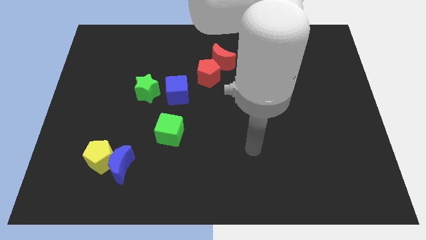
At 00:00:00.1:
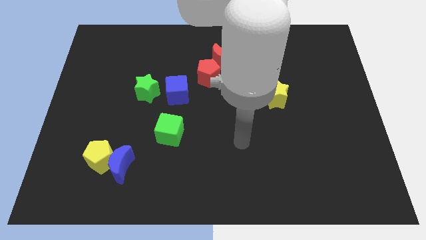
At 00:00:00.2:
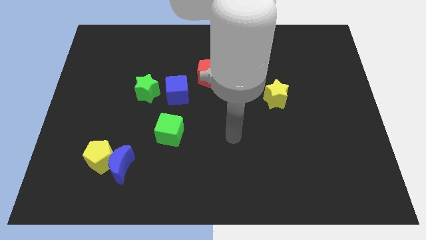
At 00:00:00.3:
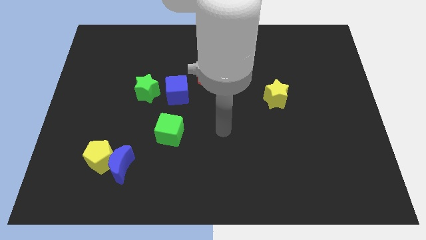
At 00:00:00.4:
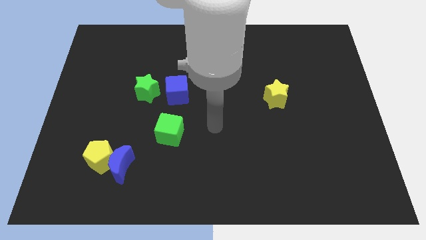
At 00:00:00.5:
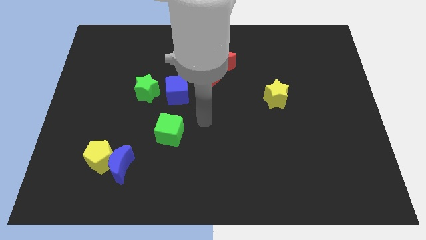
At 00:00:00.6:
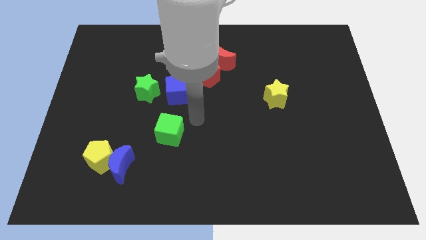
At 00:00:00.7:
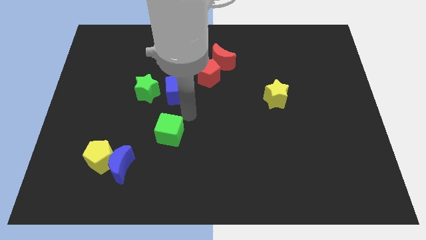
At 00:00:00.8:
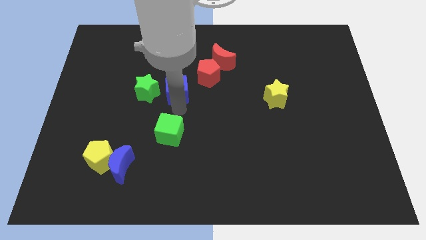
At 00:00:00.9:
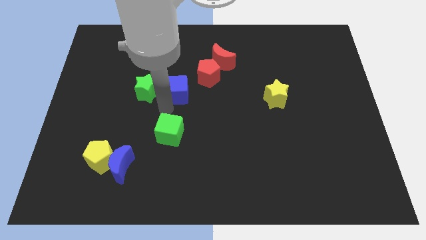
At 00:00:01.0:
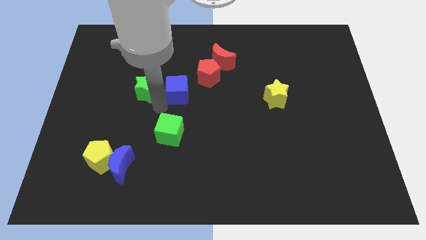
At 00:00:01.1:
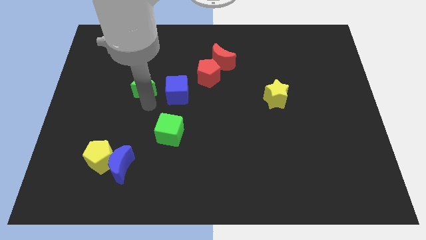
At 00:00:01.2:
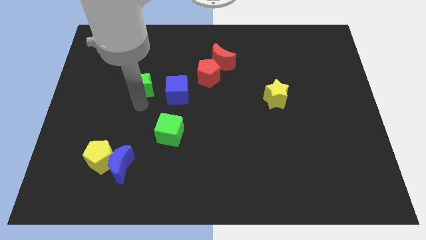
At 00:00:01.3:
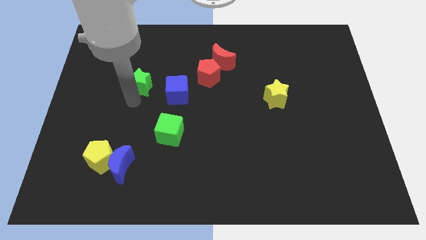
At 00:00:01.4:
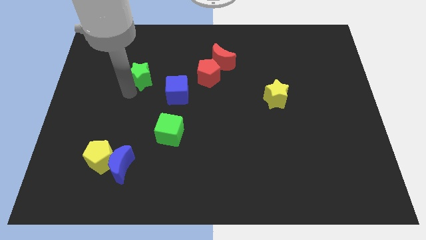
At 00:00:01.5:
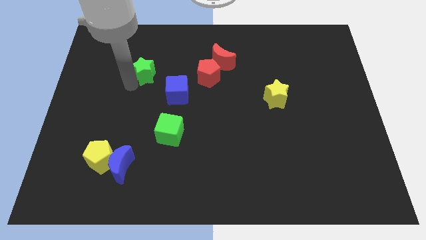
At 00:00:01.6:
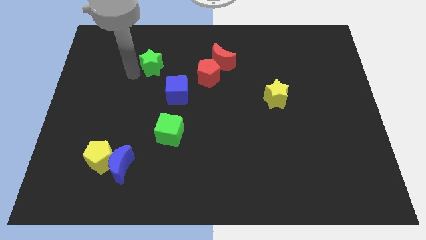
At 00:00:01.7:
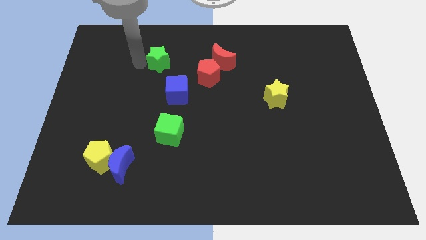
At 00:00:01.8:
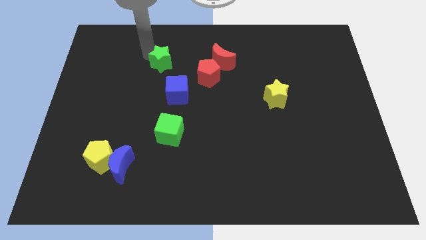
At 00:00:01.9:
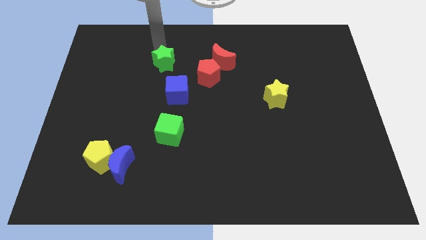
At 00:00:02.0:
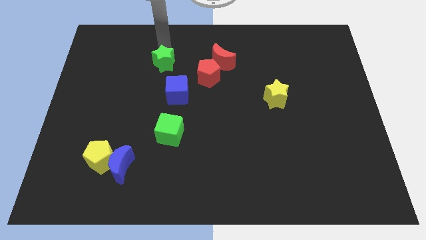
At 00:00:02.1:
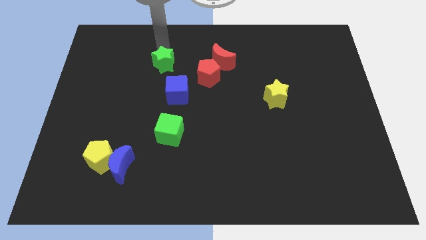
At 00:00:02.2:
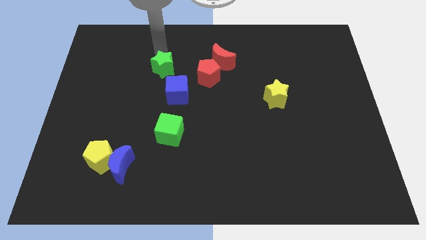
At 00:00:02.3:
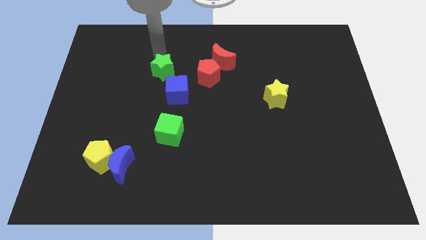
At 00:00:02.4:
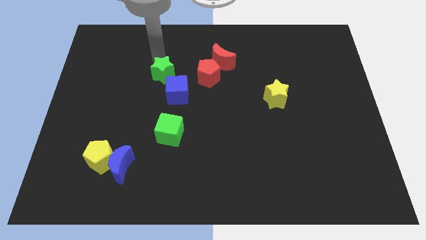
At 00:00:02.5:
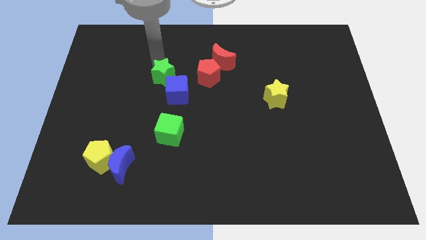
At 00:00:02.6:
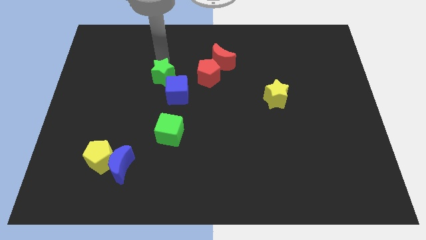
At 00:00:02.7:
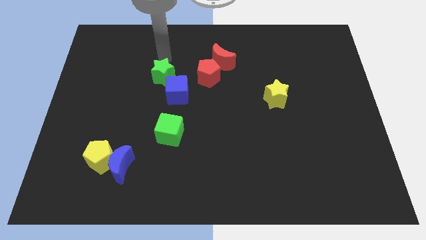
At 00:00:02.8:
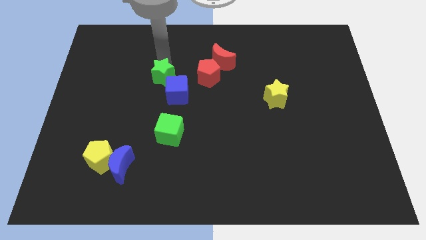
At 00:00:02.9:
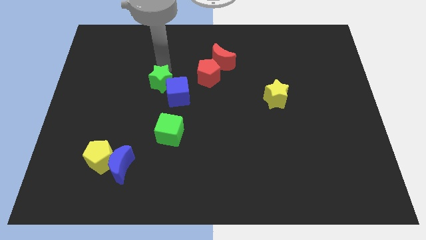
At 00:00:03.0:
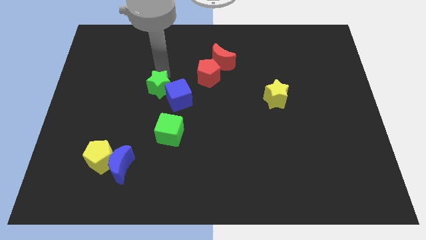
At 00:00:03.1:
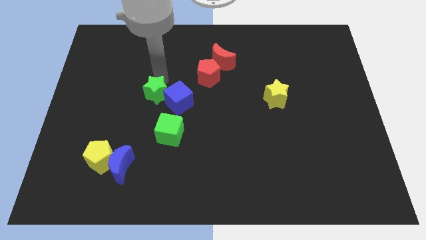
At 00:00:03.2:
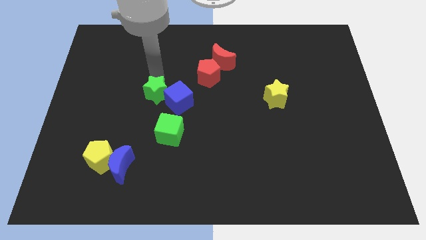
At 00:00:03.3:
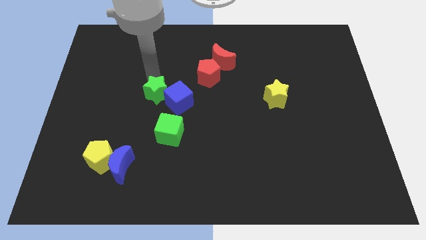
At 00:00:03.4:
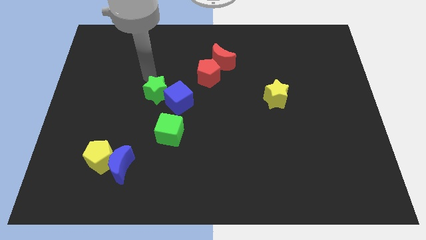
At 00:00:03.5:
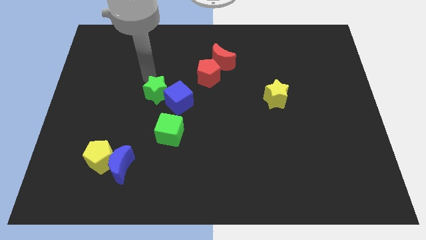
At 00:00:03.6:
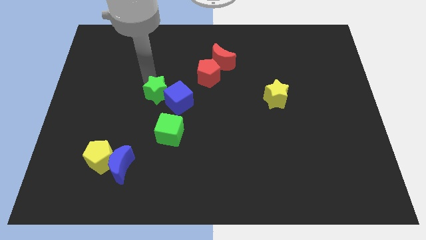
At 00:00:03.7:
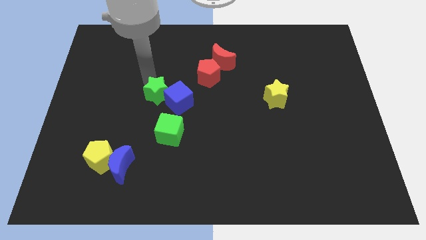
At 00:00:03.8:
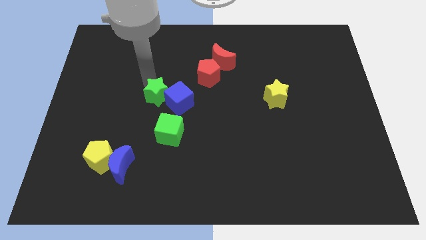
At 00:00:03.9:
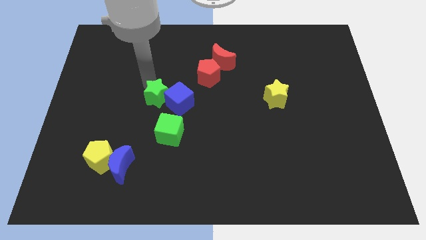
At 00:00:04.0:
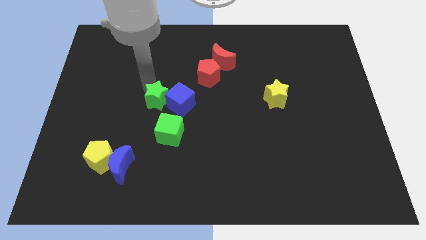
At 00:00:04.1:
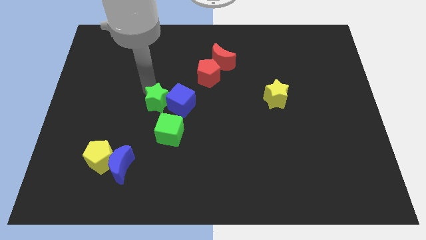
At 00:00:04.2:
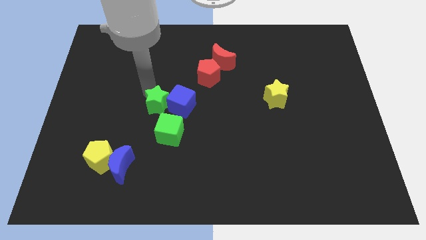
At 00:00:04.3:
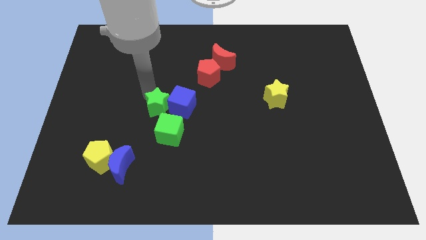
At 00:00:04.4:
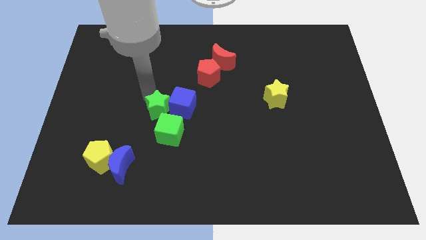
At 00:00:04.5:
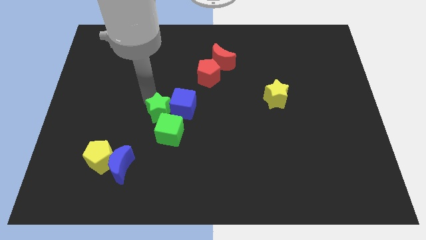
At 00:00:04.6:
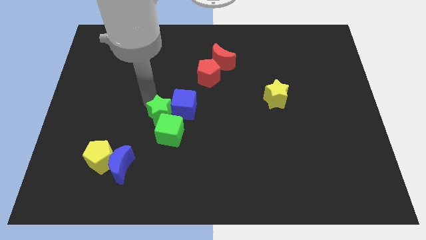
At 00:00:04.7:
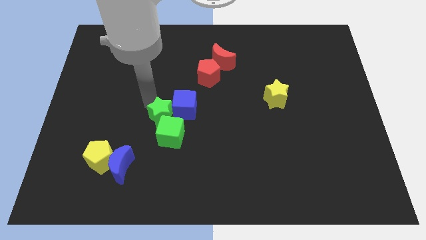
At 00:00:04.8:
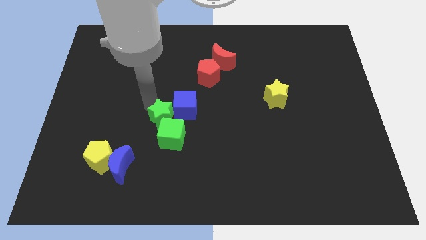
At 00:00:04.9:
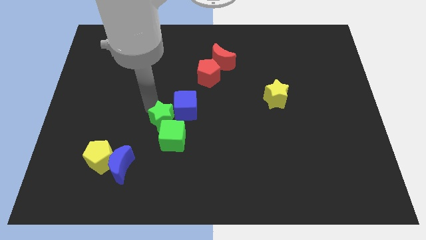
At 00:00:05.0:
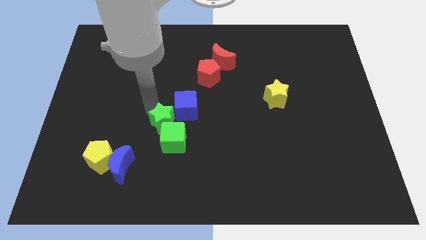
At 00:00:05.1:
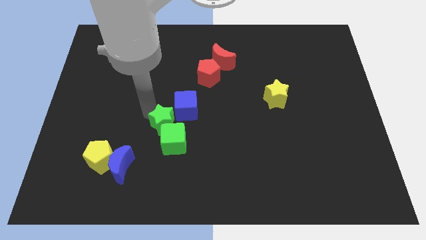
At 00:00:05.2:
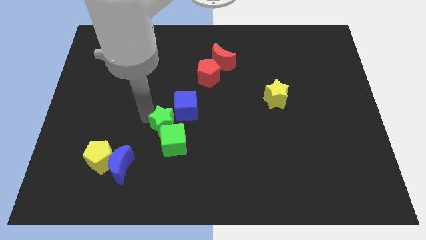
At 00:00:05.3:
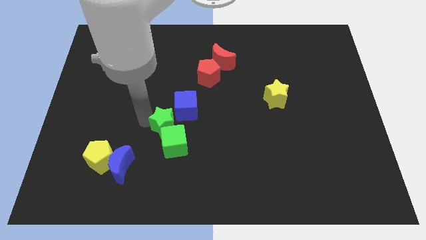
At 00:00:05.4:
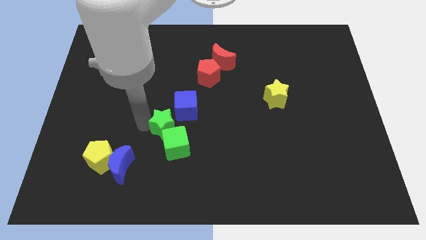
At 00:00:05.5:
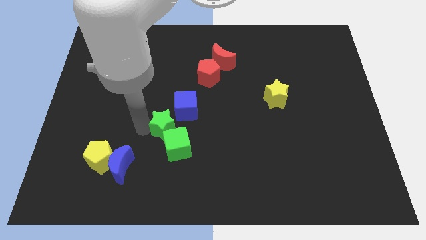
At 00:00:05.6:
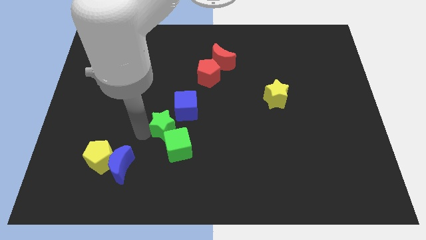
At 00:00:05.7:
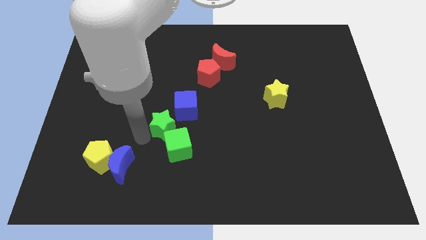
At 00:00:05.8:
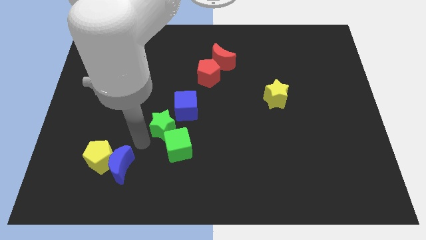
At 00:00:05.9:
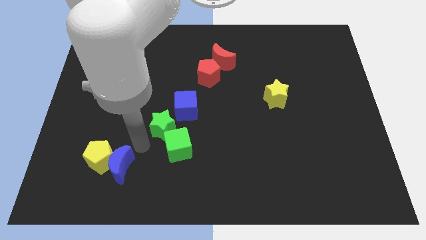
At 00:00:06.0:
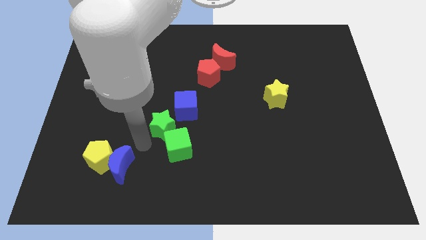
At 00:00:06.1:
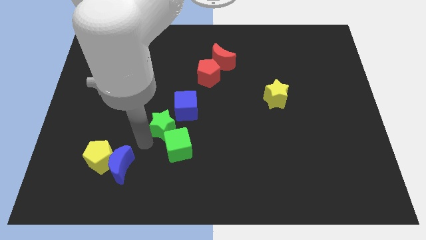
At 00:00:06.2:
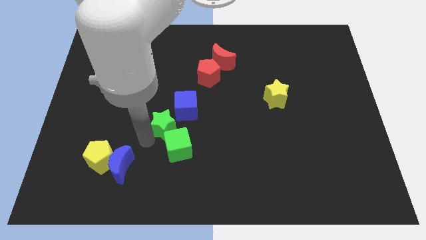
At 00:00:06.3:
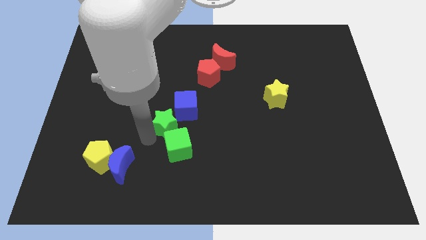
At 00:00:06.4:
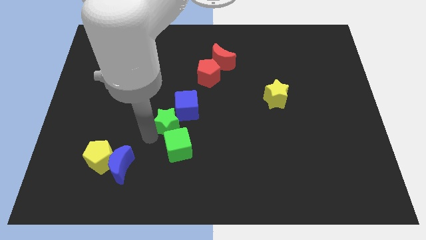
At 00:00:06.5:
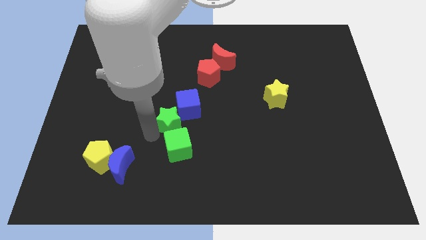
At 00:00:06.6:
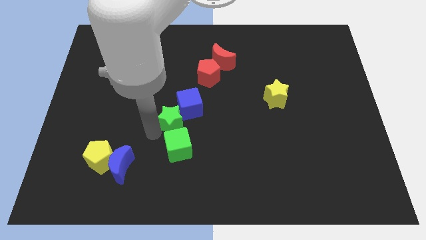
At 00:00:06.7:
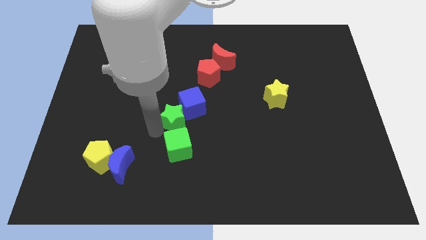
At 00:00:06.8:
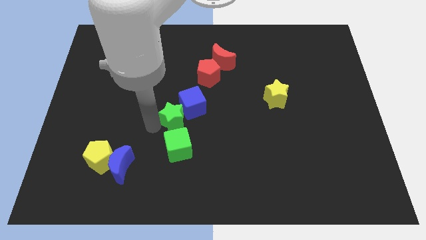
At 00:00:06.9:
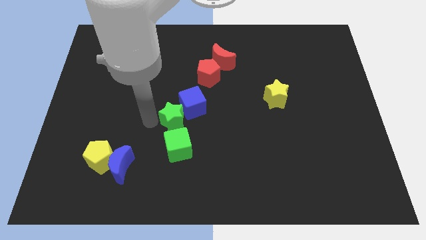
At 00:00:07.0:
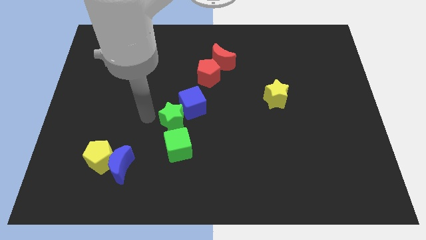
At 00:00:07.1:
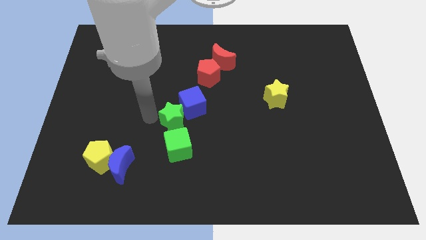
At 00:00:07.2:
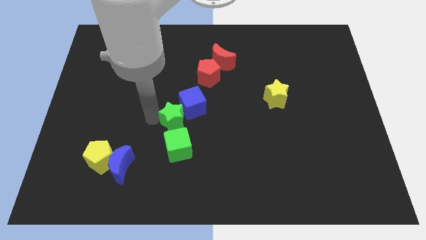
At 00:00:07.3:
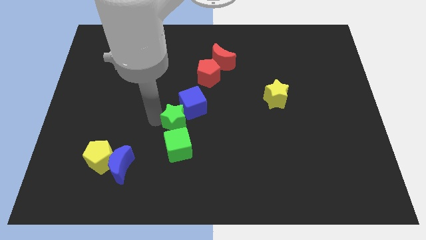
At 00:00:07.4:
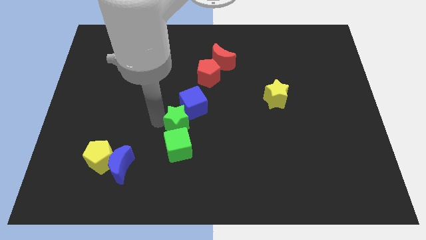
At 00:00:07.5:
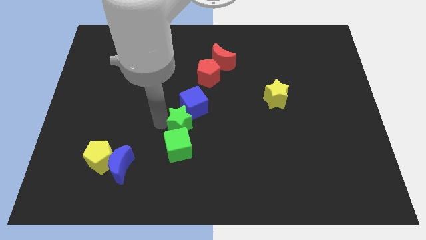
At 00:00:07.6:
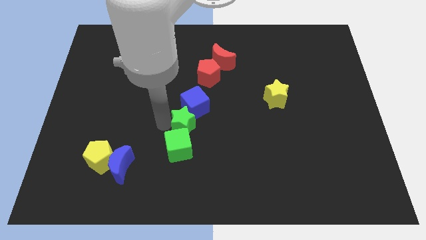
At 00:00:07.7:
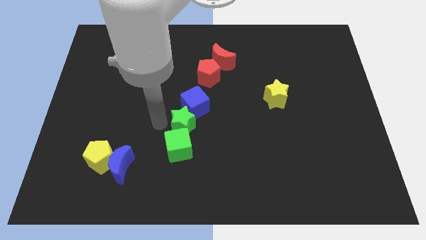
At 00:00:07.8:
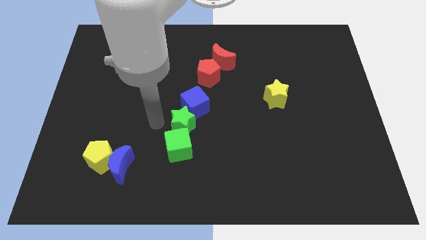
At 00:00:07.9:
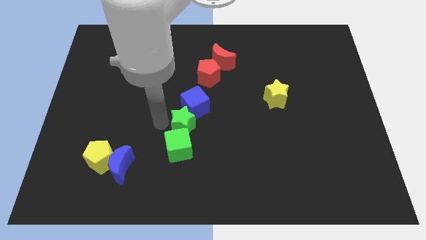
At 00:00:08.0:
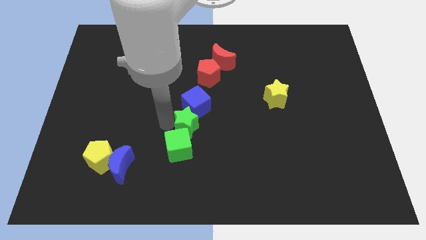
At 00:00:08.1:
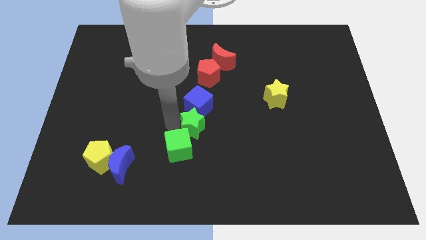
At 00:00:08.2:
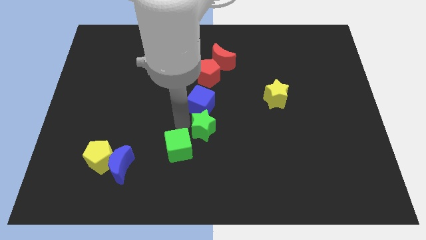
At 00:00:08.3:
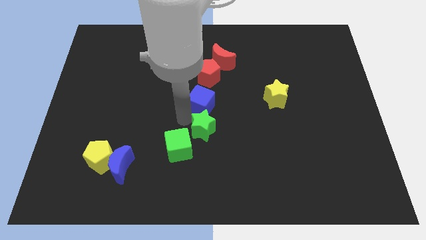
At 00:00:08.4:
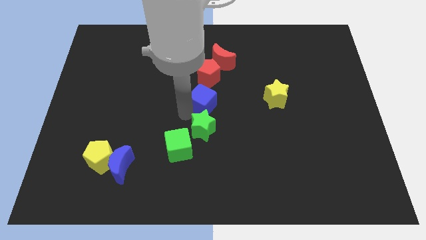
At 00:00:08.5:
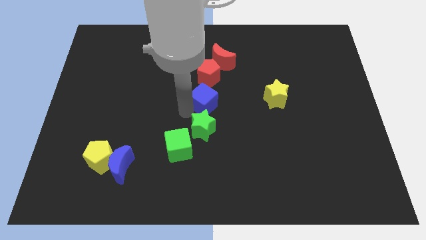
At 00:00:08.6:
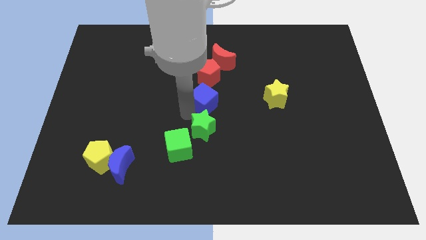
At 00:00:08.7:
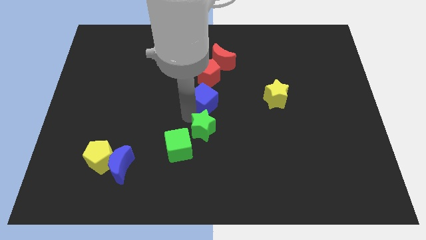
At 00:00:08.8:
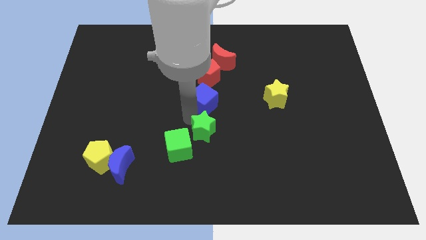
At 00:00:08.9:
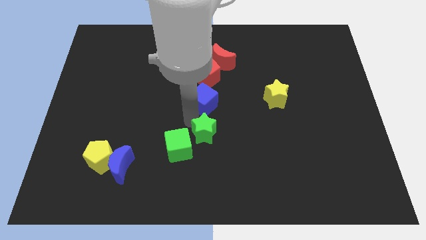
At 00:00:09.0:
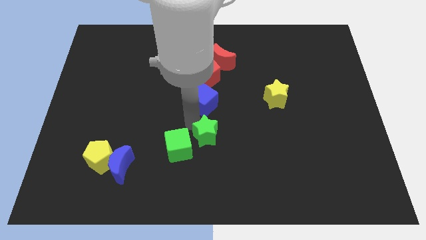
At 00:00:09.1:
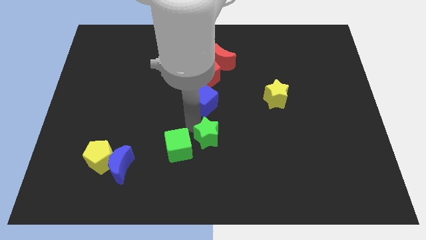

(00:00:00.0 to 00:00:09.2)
move the green star down and right diagonally
